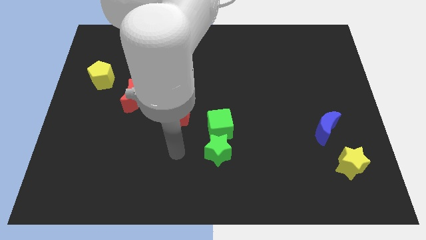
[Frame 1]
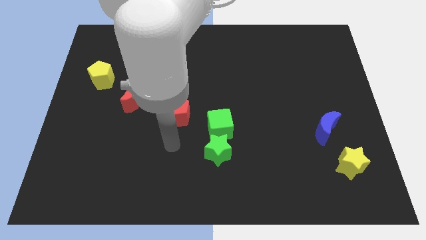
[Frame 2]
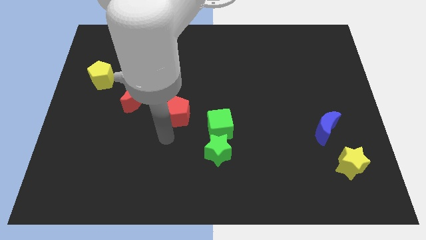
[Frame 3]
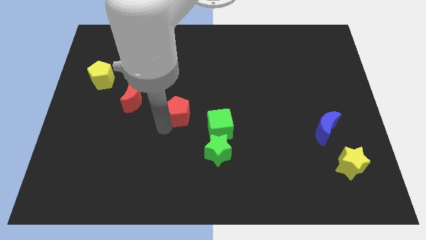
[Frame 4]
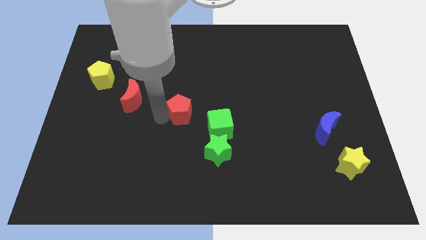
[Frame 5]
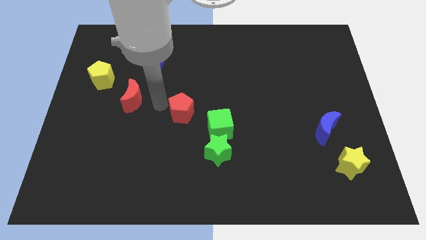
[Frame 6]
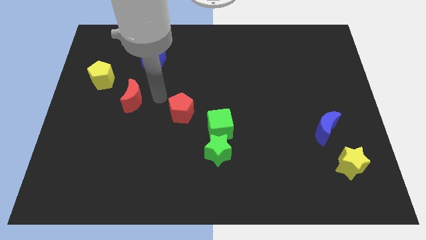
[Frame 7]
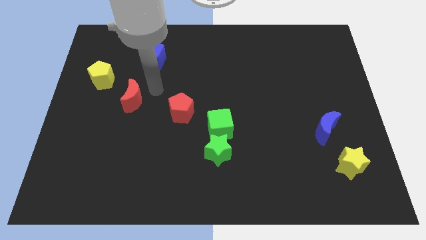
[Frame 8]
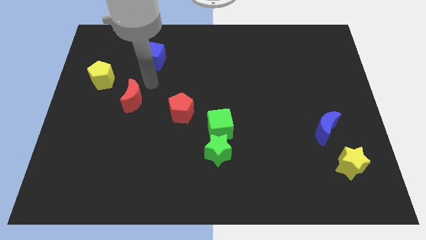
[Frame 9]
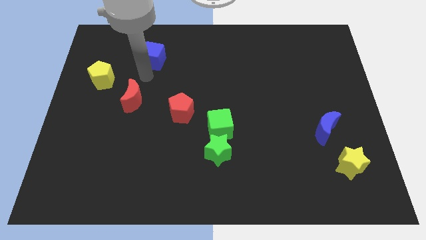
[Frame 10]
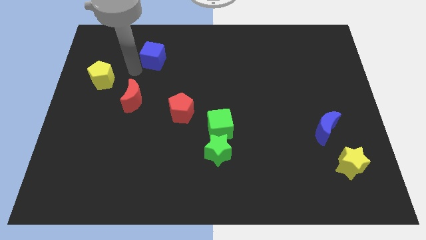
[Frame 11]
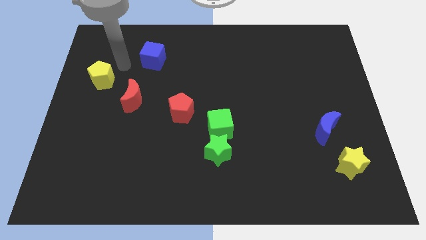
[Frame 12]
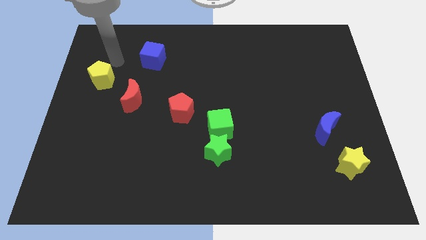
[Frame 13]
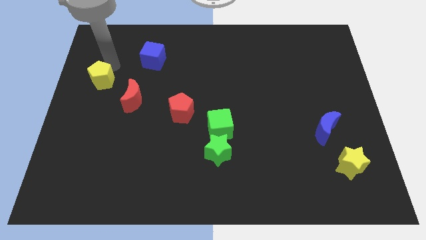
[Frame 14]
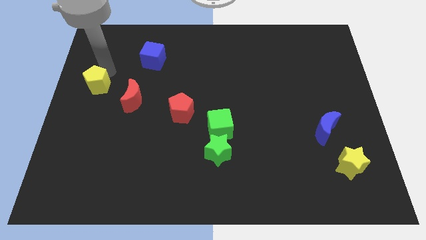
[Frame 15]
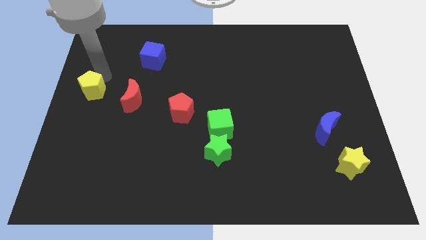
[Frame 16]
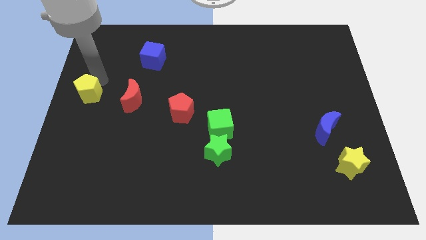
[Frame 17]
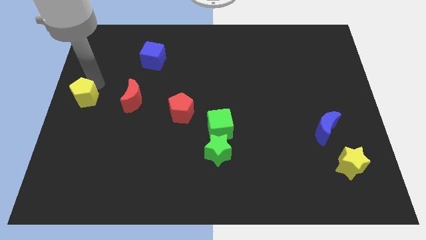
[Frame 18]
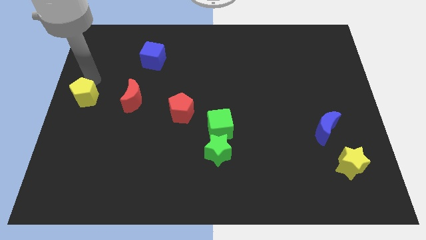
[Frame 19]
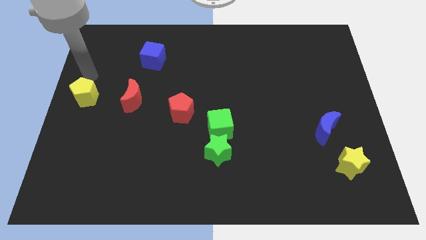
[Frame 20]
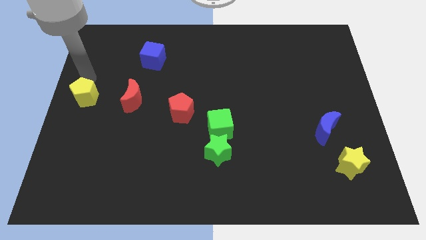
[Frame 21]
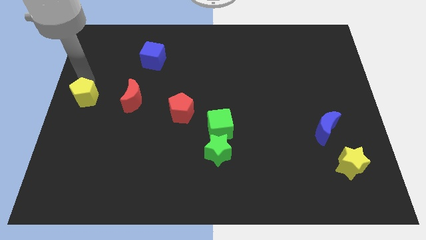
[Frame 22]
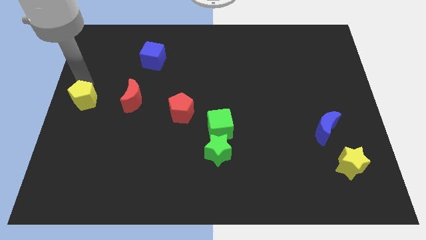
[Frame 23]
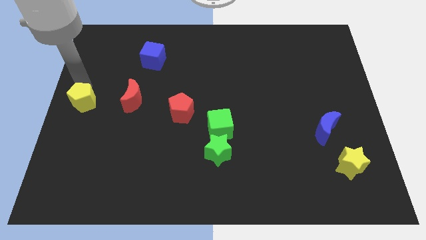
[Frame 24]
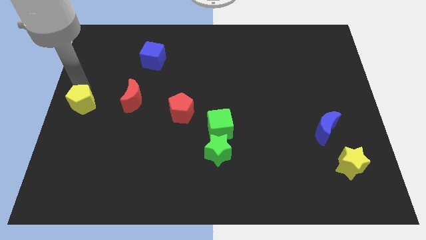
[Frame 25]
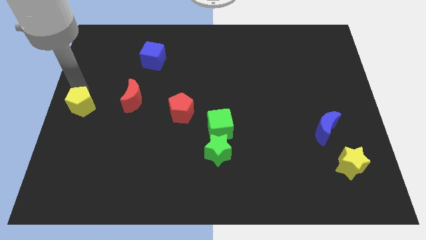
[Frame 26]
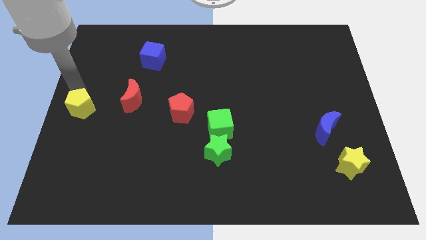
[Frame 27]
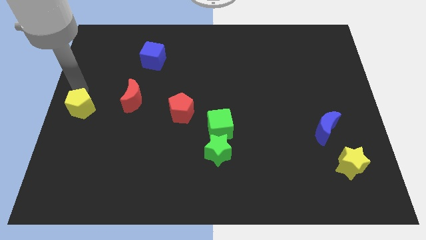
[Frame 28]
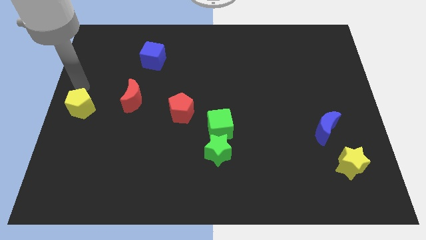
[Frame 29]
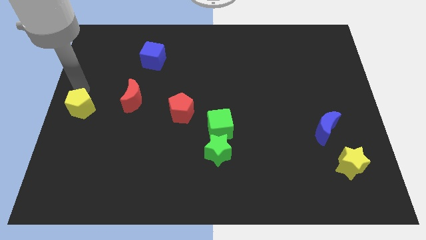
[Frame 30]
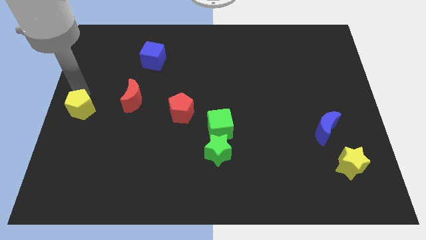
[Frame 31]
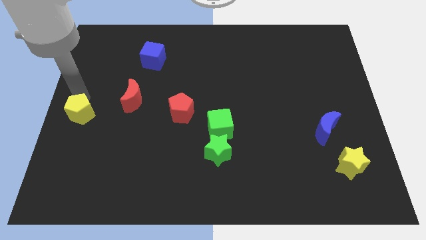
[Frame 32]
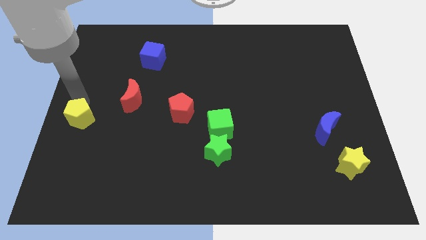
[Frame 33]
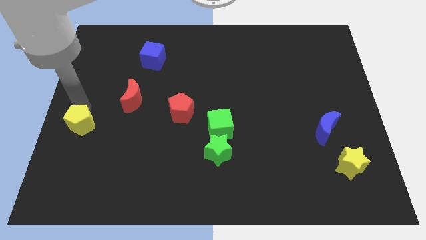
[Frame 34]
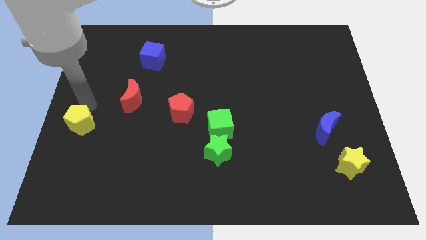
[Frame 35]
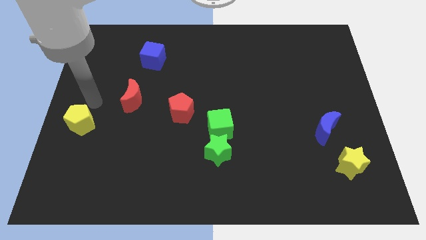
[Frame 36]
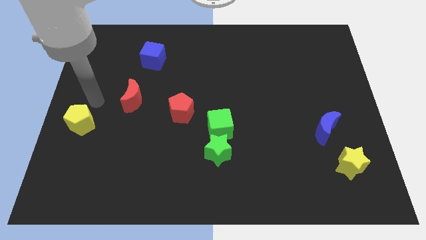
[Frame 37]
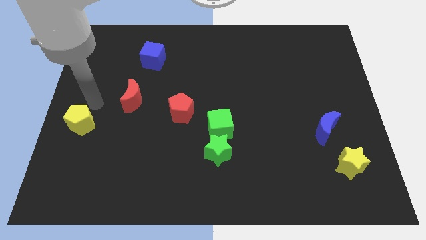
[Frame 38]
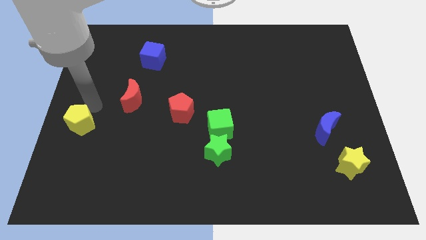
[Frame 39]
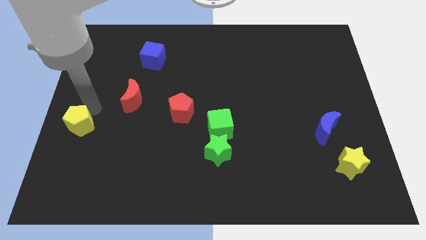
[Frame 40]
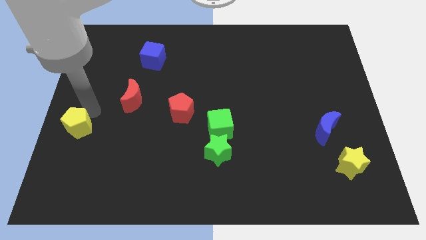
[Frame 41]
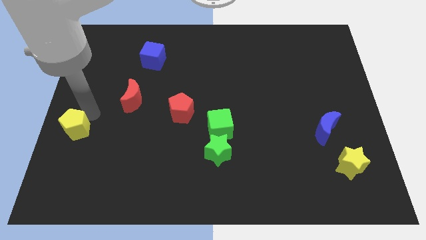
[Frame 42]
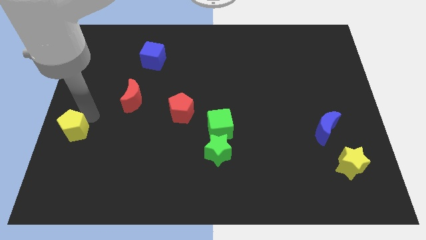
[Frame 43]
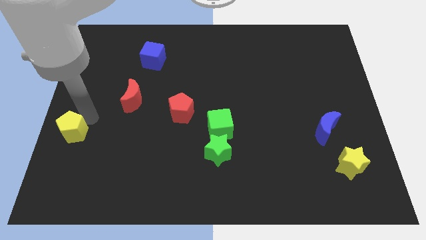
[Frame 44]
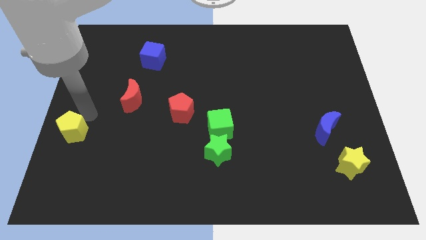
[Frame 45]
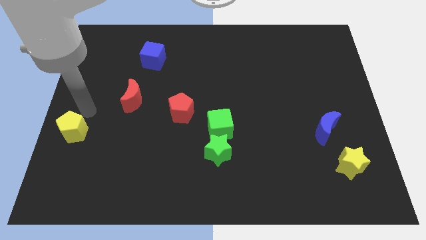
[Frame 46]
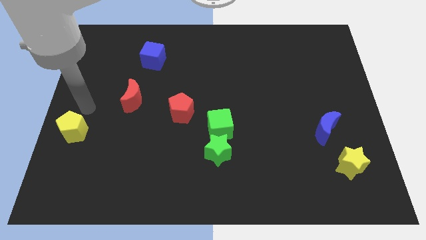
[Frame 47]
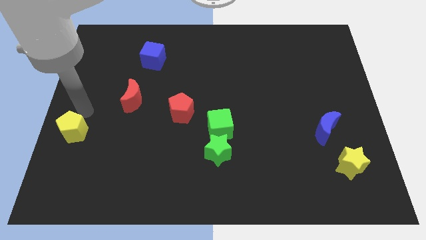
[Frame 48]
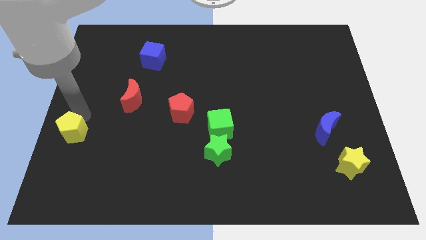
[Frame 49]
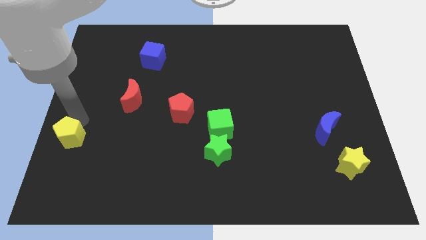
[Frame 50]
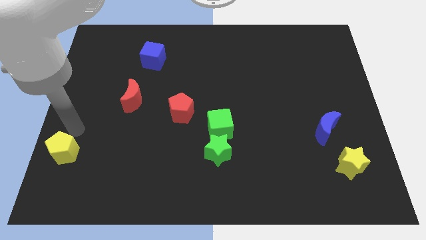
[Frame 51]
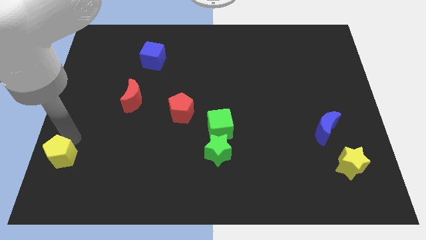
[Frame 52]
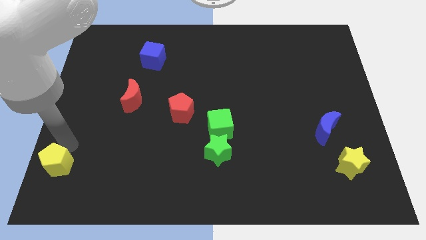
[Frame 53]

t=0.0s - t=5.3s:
put the yellow pentagon to the bottom left of the board

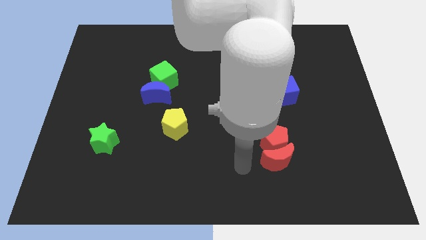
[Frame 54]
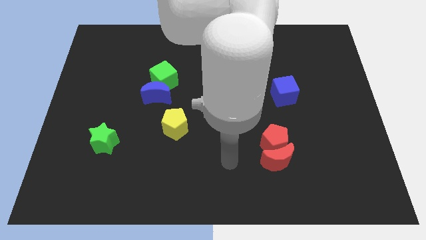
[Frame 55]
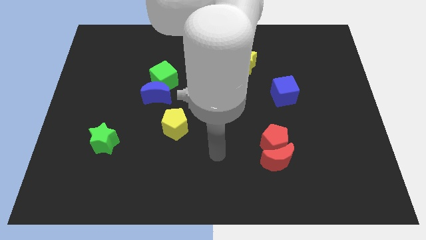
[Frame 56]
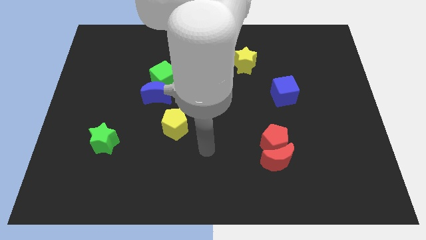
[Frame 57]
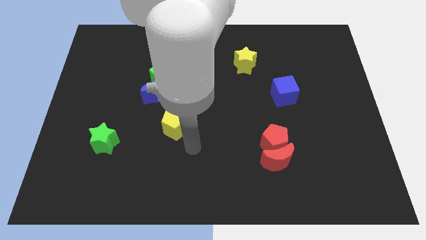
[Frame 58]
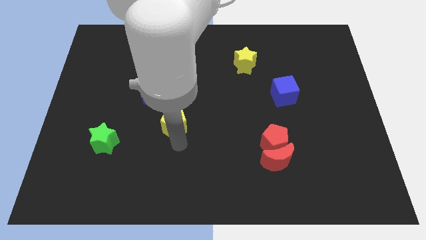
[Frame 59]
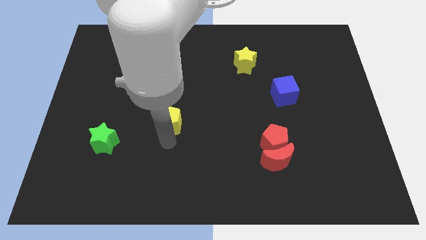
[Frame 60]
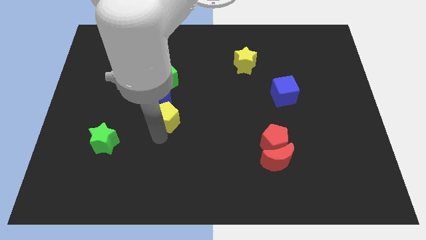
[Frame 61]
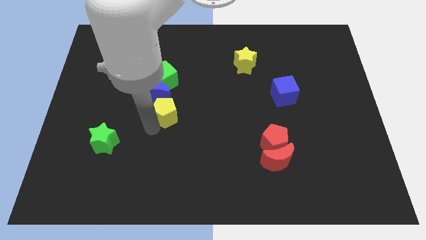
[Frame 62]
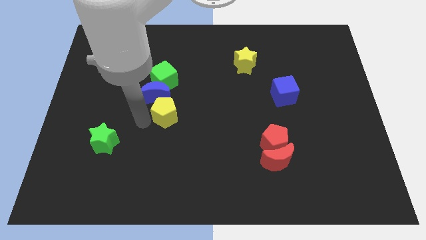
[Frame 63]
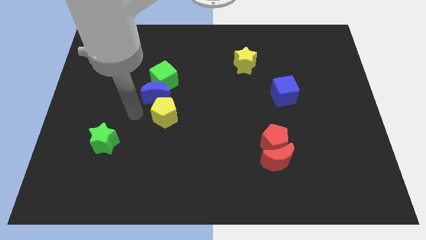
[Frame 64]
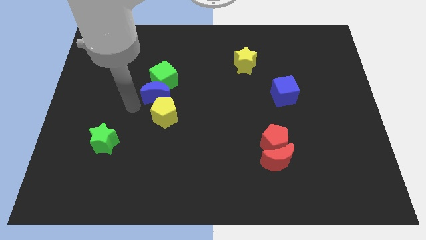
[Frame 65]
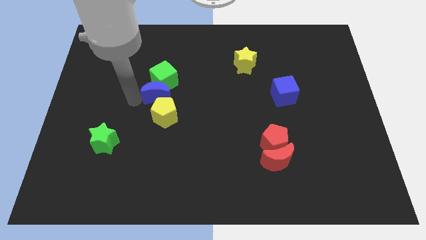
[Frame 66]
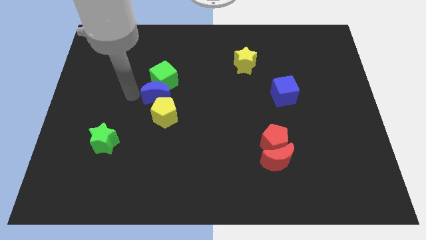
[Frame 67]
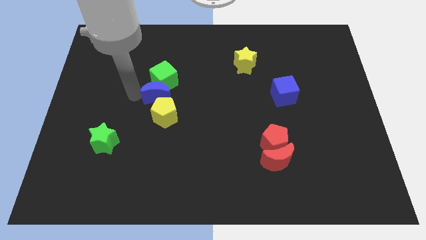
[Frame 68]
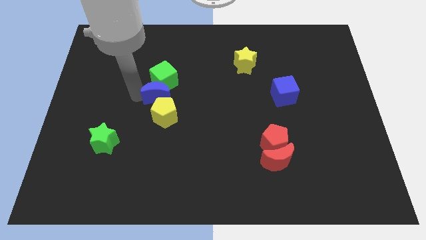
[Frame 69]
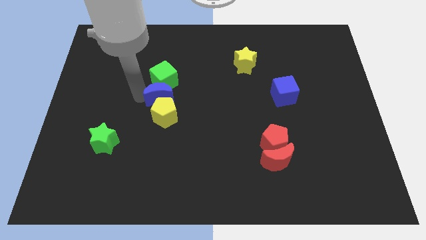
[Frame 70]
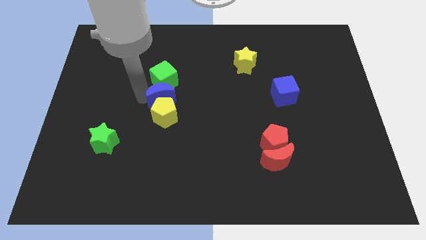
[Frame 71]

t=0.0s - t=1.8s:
move the blue moon to the middle
